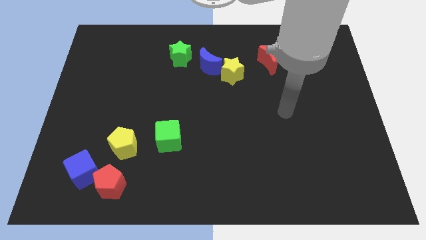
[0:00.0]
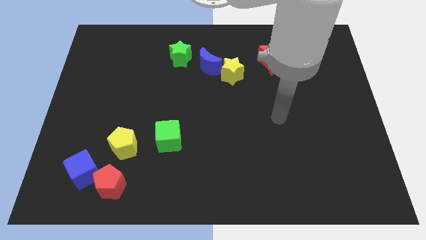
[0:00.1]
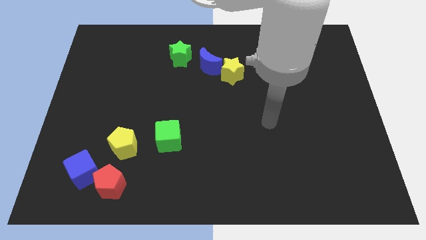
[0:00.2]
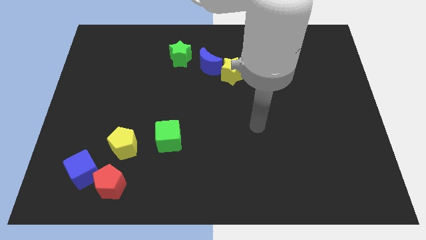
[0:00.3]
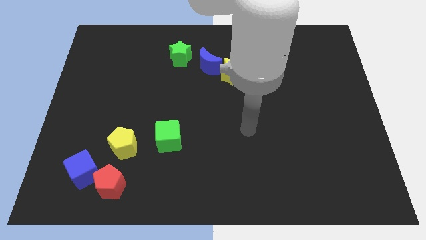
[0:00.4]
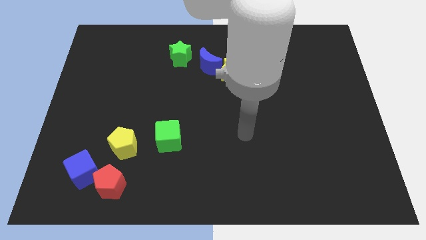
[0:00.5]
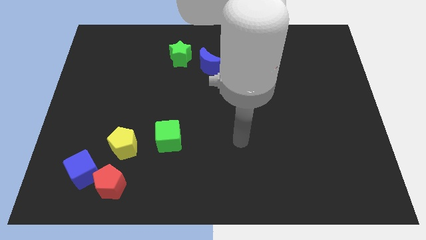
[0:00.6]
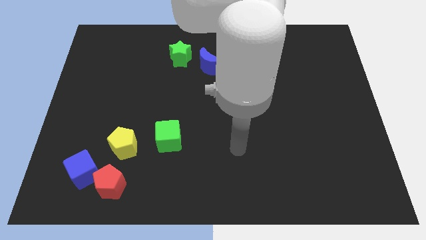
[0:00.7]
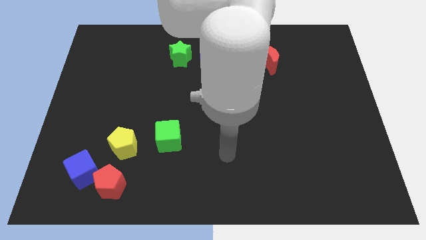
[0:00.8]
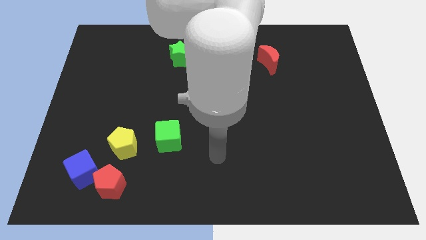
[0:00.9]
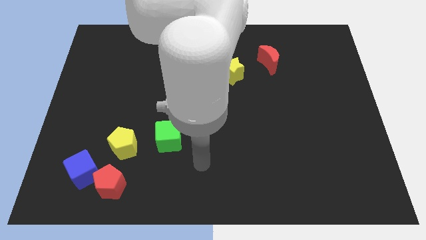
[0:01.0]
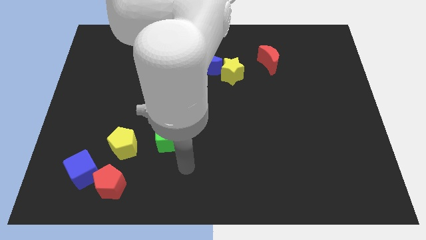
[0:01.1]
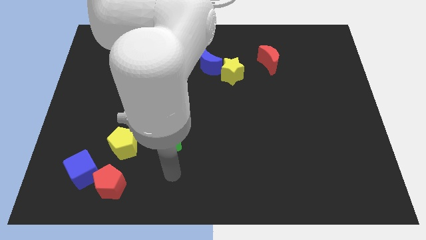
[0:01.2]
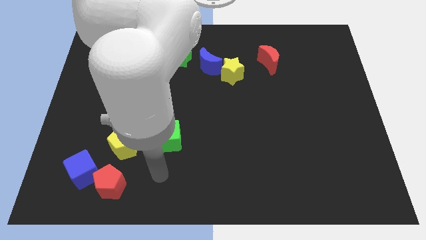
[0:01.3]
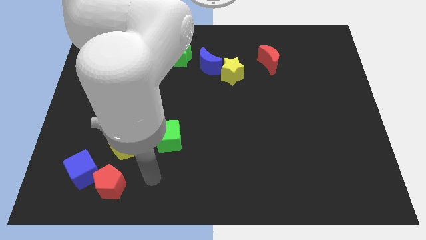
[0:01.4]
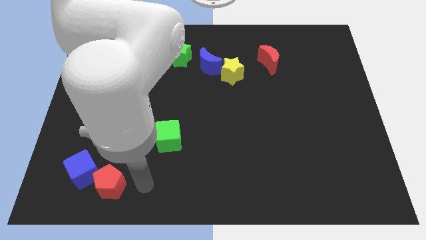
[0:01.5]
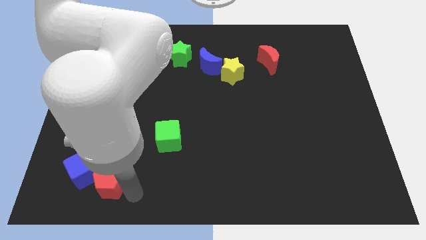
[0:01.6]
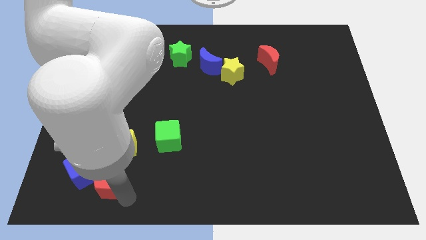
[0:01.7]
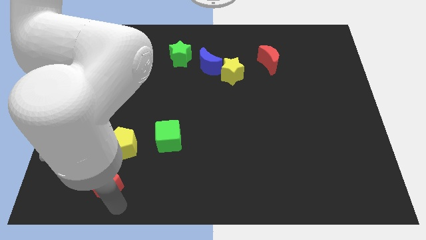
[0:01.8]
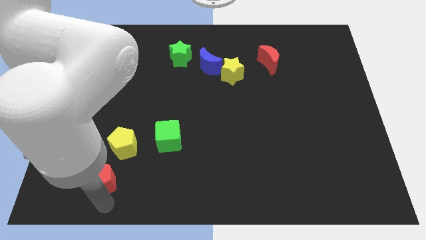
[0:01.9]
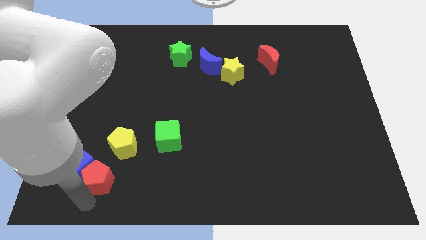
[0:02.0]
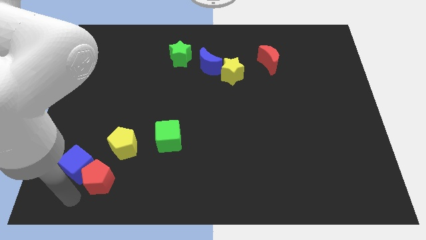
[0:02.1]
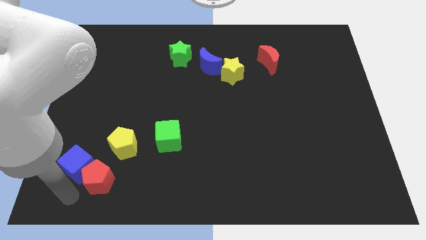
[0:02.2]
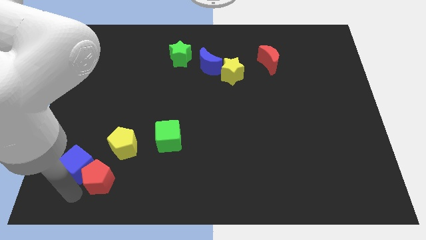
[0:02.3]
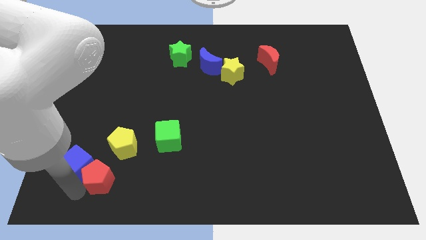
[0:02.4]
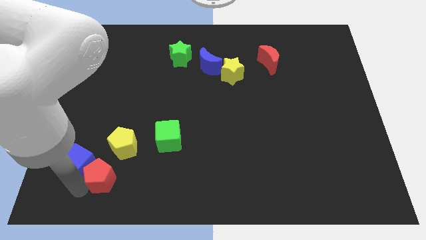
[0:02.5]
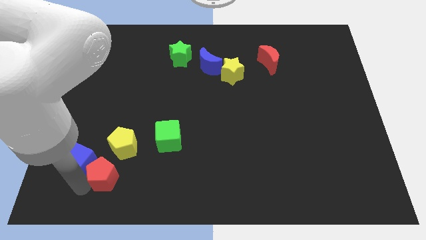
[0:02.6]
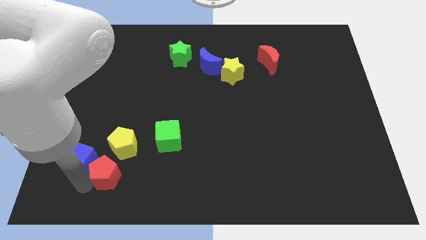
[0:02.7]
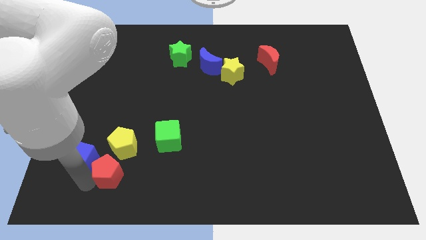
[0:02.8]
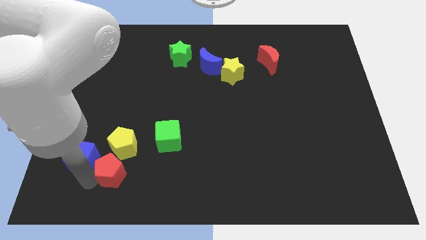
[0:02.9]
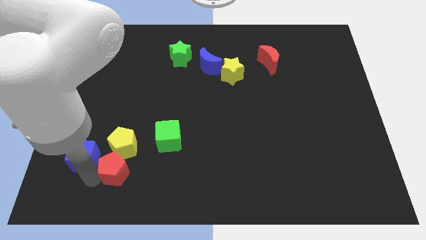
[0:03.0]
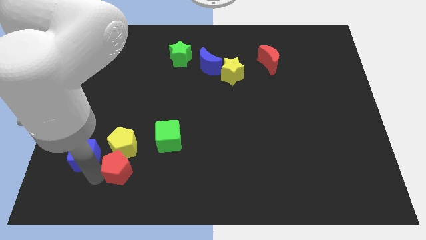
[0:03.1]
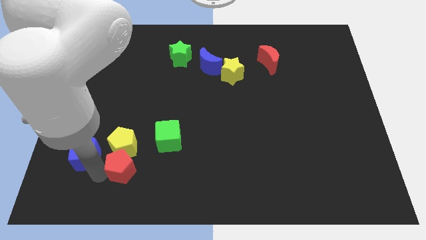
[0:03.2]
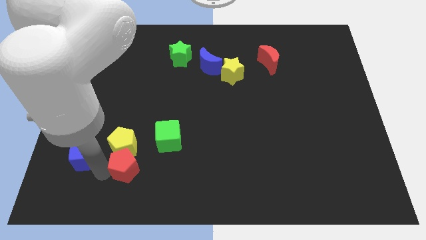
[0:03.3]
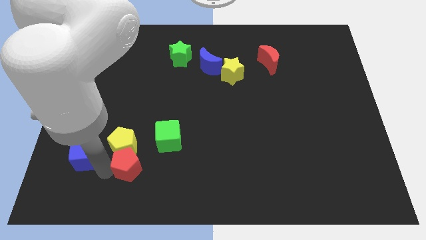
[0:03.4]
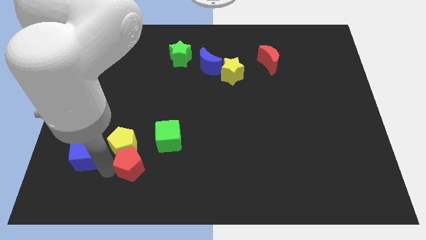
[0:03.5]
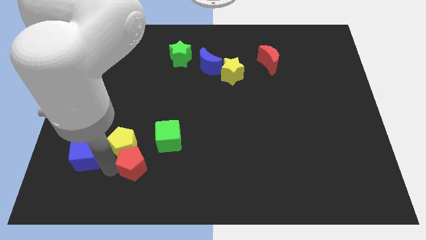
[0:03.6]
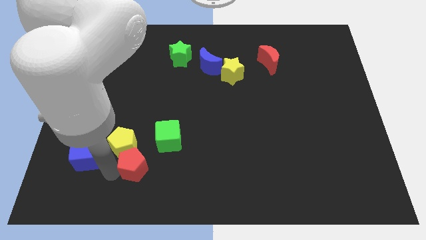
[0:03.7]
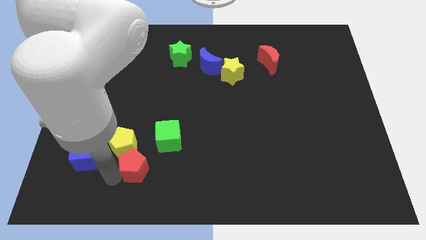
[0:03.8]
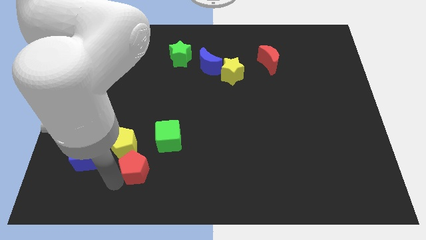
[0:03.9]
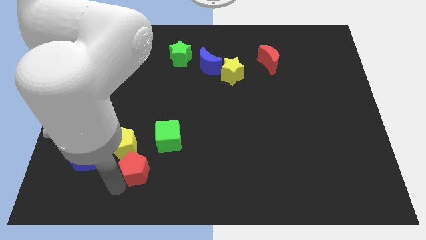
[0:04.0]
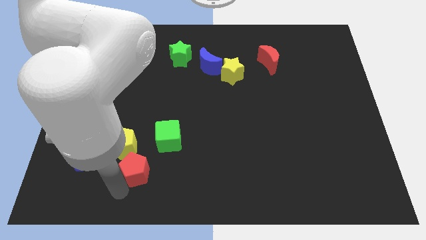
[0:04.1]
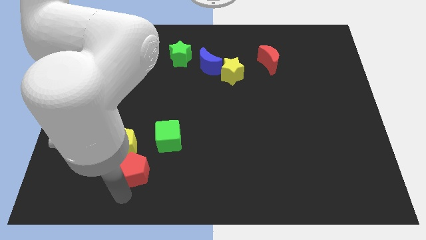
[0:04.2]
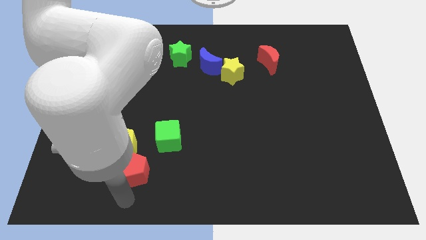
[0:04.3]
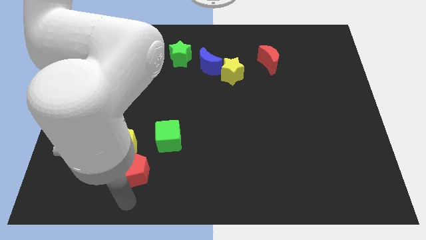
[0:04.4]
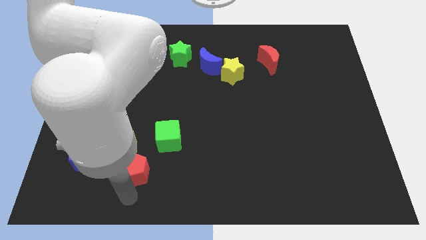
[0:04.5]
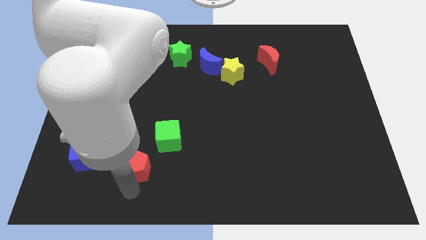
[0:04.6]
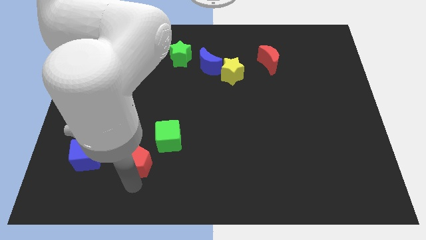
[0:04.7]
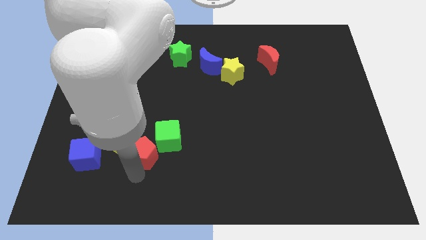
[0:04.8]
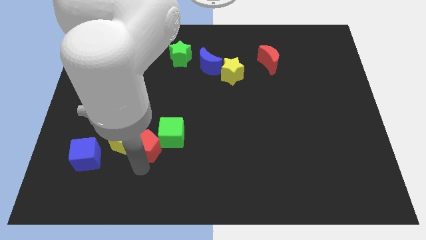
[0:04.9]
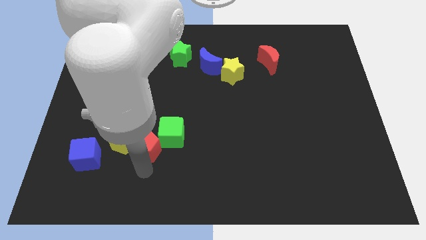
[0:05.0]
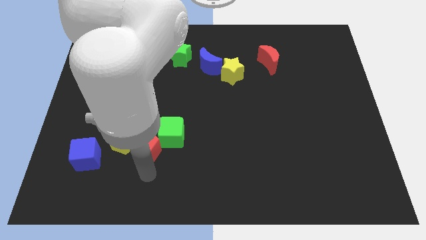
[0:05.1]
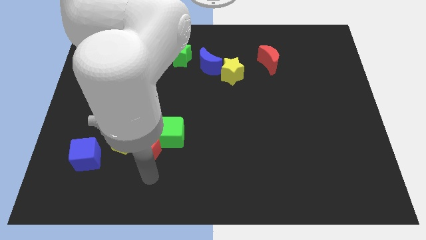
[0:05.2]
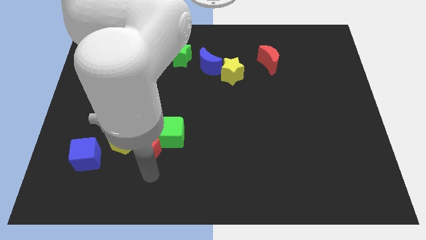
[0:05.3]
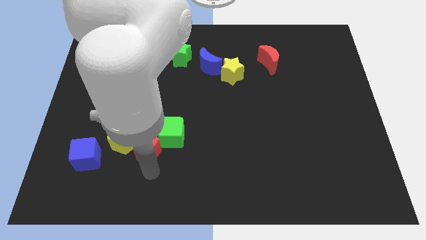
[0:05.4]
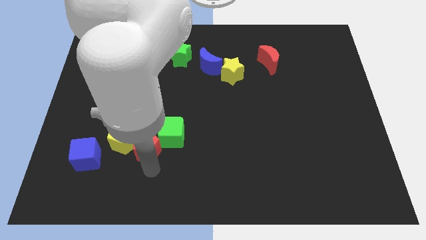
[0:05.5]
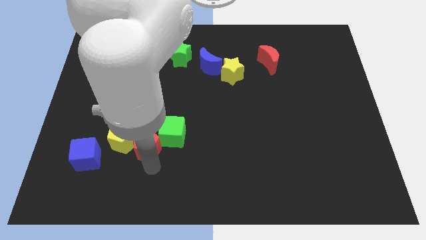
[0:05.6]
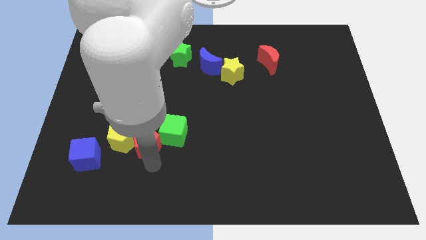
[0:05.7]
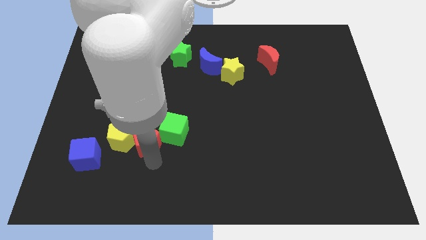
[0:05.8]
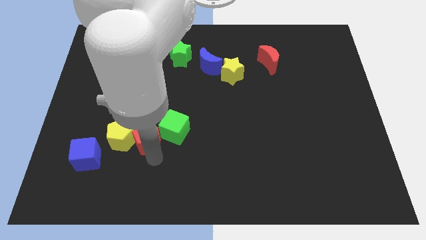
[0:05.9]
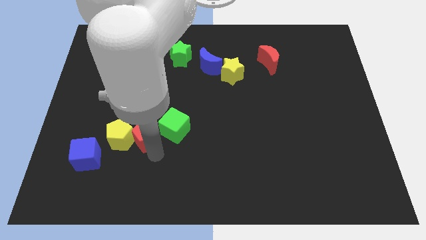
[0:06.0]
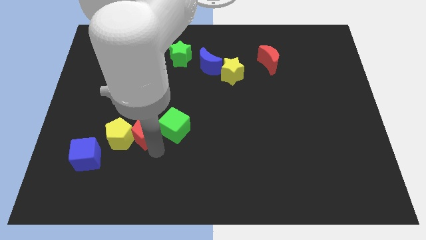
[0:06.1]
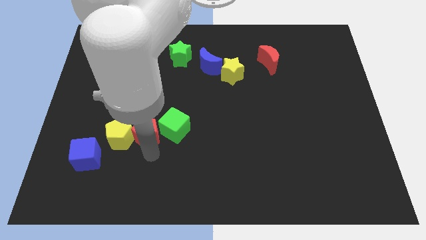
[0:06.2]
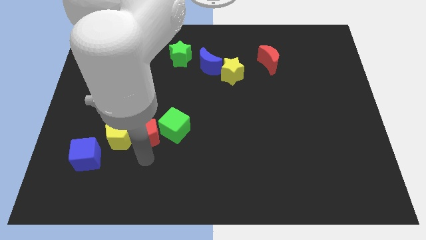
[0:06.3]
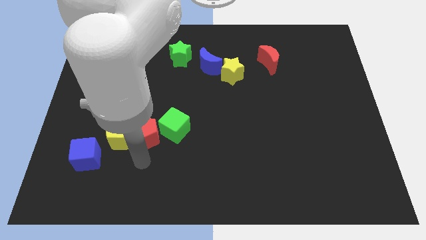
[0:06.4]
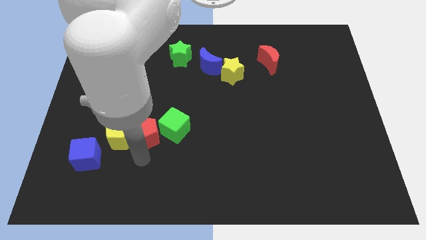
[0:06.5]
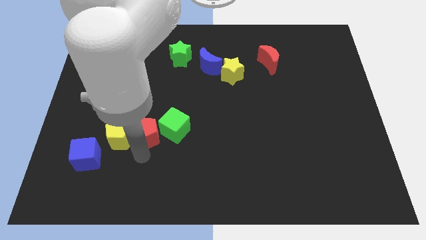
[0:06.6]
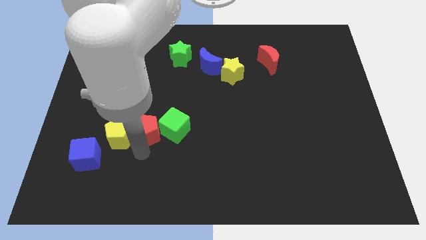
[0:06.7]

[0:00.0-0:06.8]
put the red pentagon diagonally up and to the left of the green cube

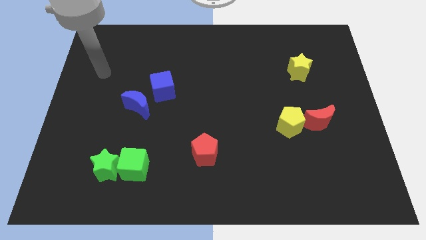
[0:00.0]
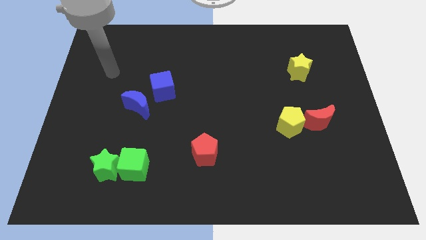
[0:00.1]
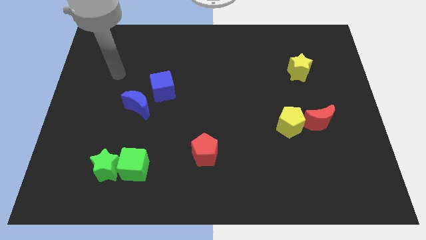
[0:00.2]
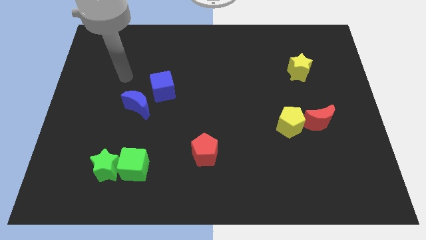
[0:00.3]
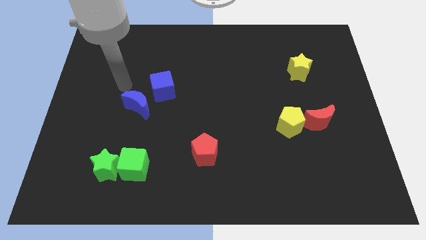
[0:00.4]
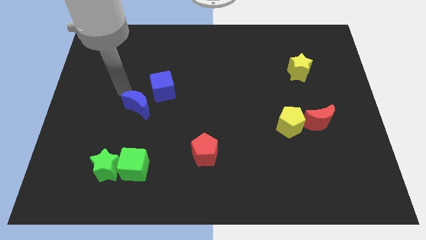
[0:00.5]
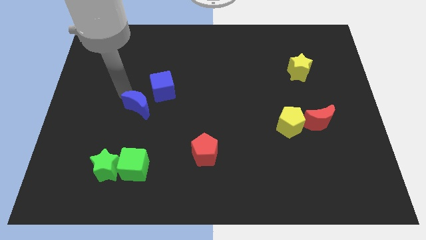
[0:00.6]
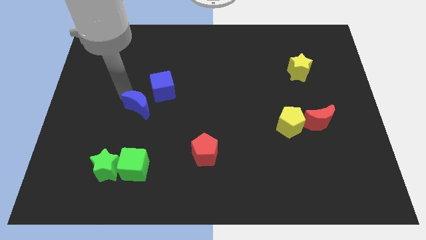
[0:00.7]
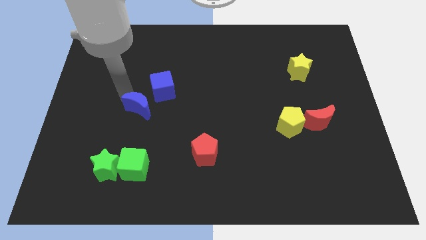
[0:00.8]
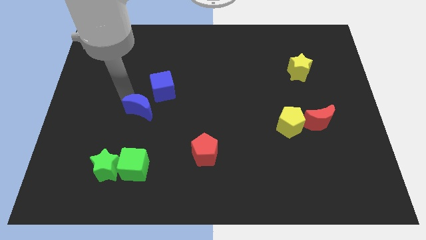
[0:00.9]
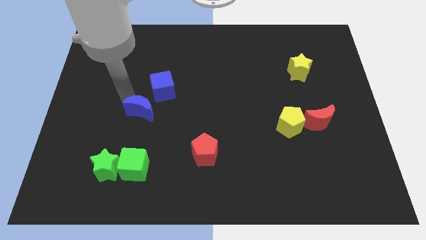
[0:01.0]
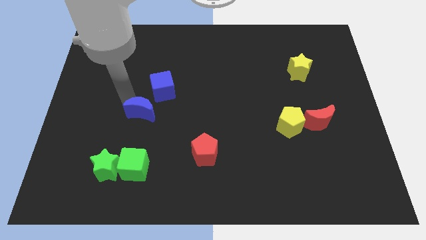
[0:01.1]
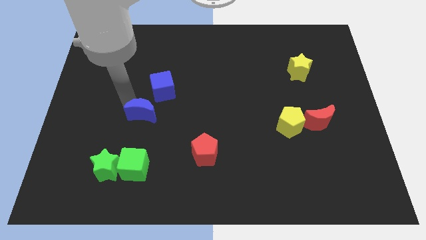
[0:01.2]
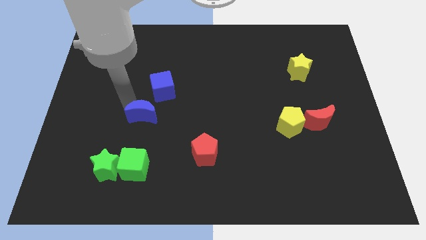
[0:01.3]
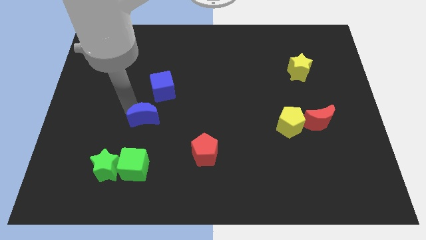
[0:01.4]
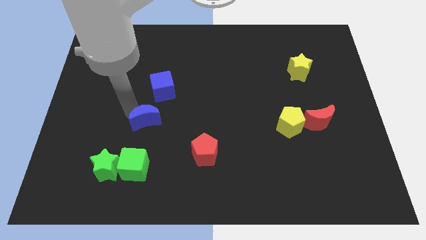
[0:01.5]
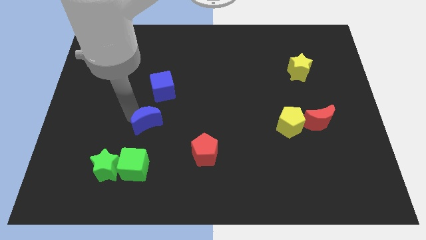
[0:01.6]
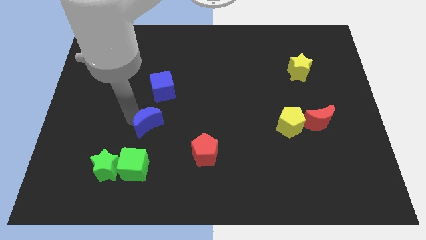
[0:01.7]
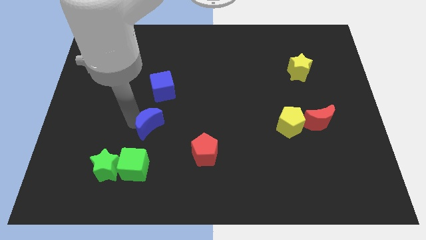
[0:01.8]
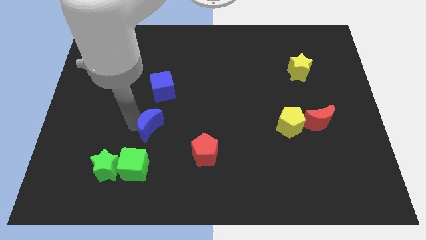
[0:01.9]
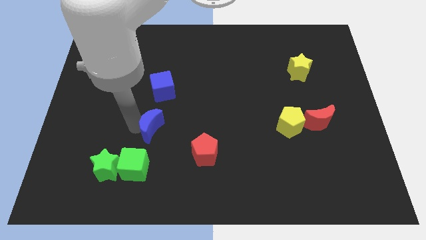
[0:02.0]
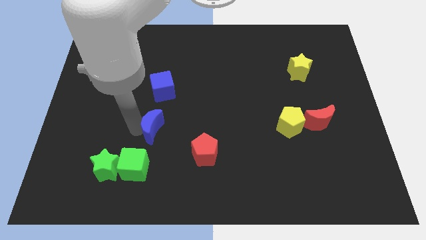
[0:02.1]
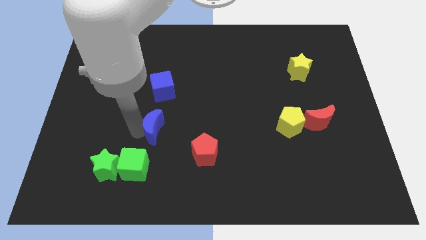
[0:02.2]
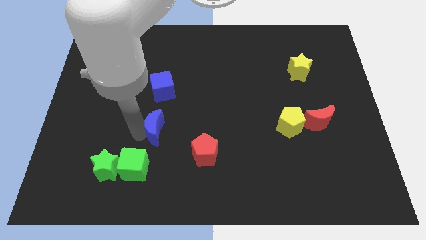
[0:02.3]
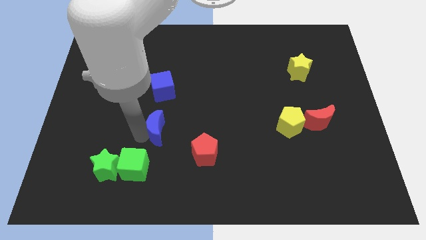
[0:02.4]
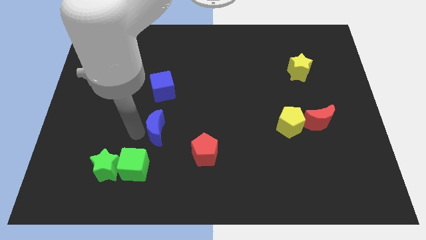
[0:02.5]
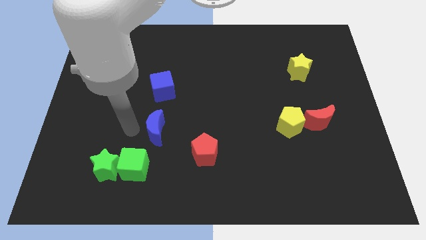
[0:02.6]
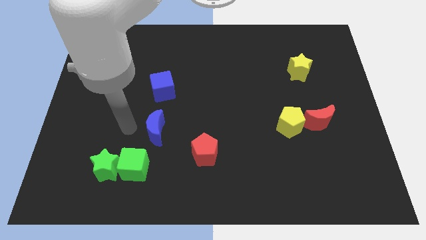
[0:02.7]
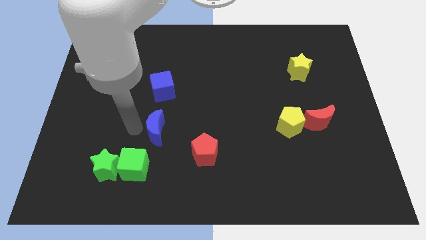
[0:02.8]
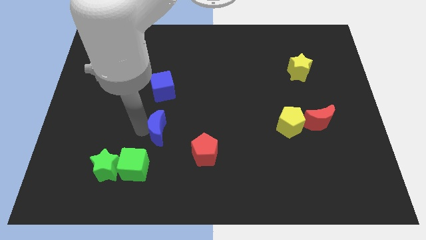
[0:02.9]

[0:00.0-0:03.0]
put the blue moon to the top left side of the red pentagon
